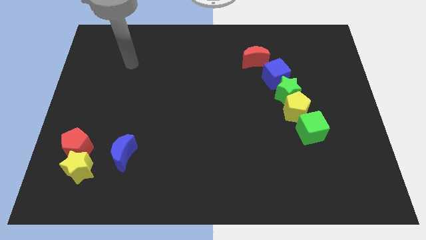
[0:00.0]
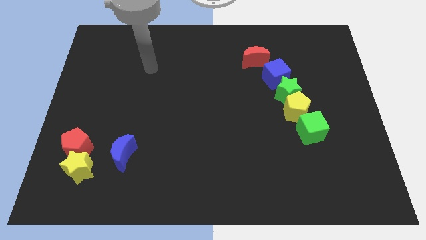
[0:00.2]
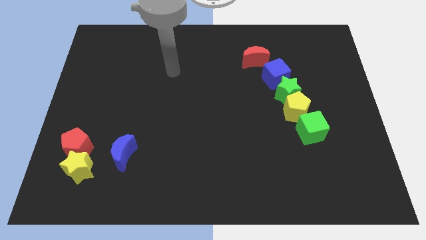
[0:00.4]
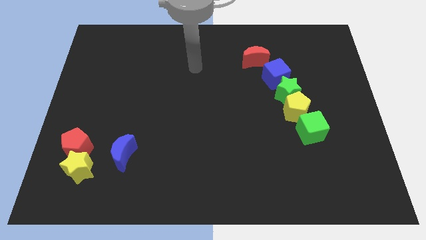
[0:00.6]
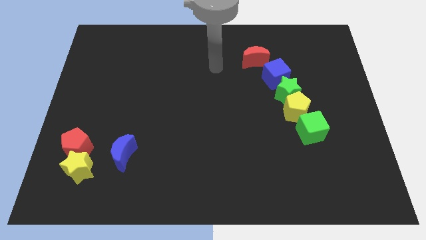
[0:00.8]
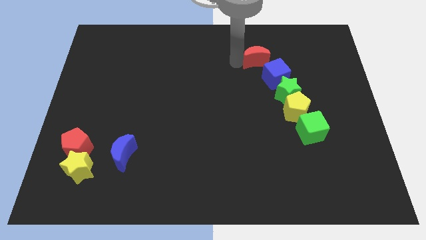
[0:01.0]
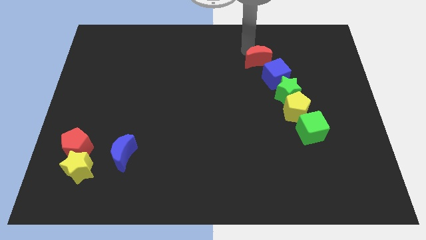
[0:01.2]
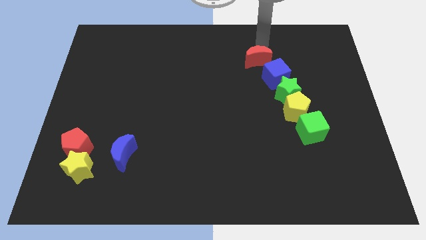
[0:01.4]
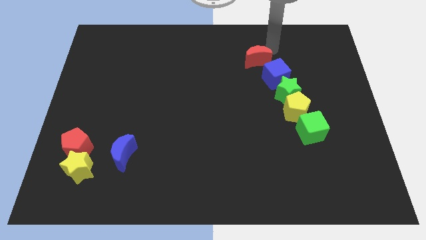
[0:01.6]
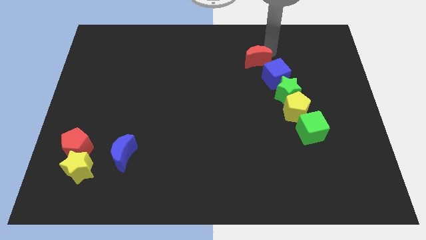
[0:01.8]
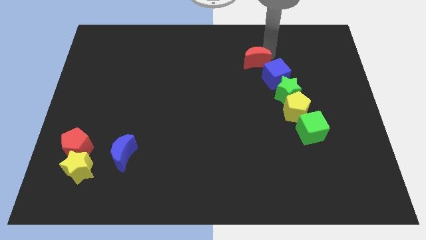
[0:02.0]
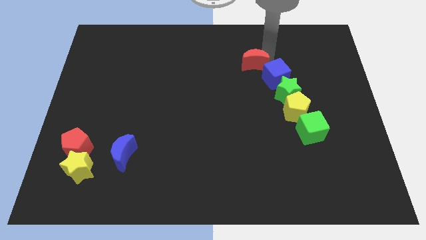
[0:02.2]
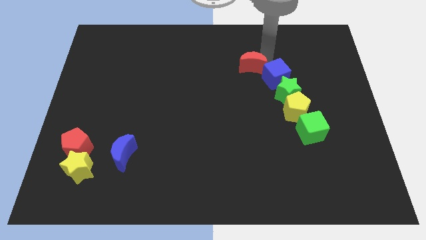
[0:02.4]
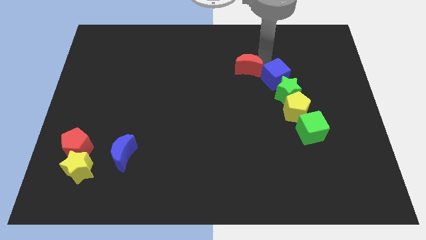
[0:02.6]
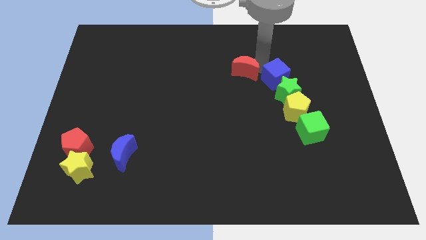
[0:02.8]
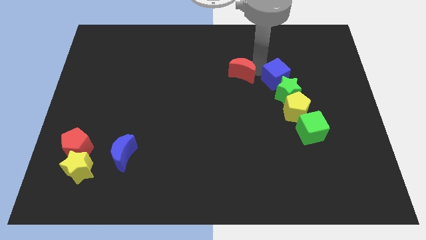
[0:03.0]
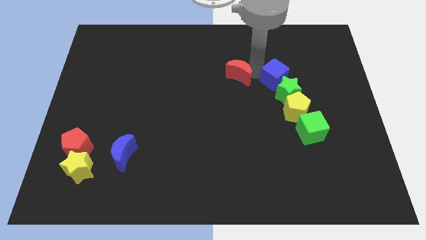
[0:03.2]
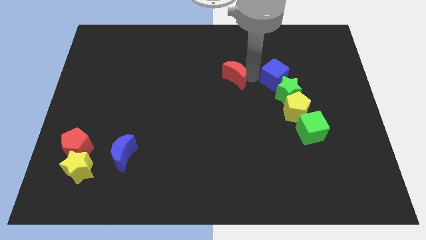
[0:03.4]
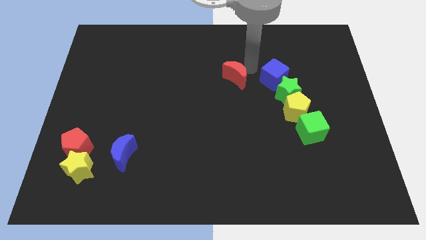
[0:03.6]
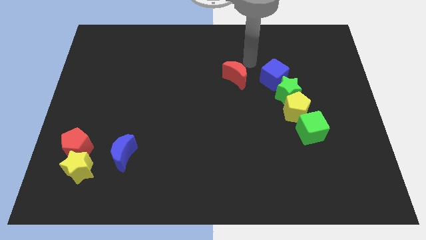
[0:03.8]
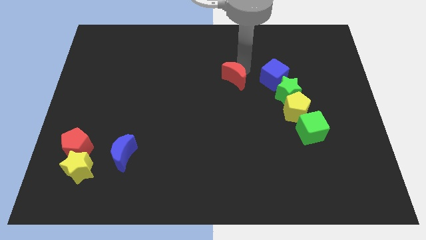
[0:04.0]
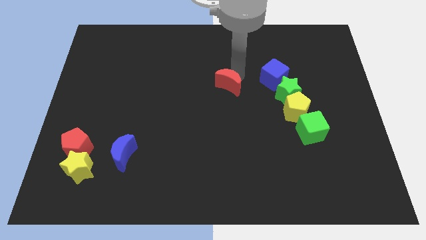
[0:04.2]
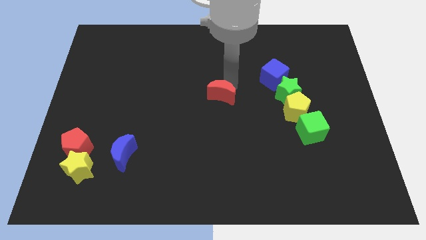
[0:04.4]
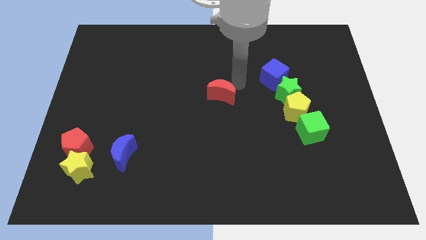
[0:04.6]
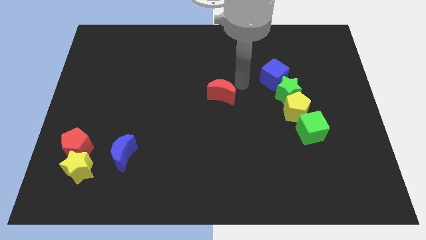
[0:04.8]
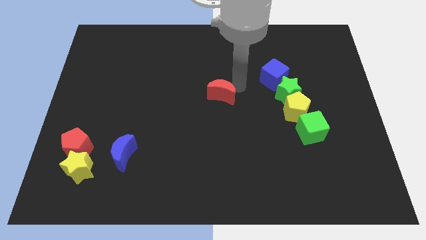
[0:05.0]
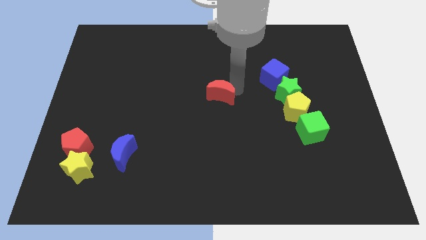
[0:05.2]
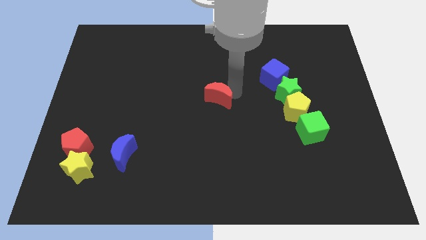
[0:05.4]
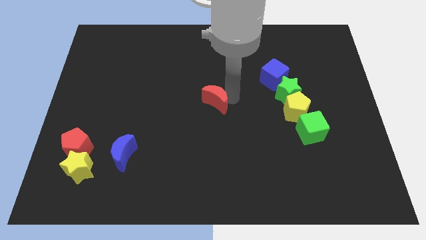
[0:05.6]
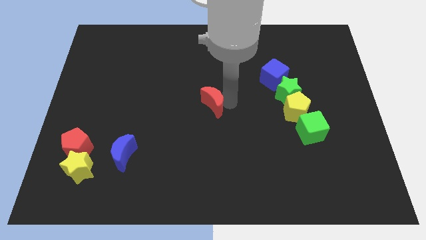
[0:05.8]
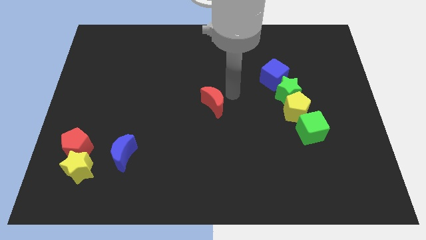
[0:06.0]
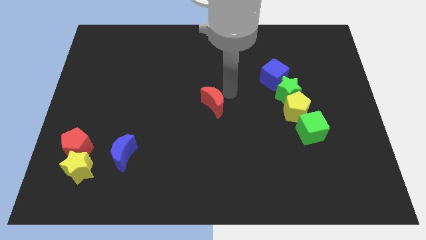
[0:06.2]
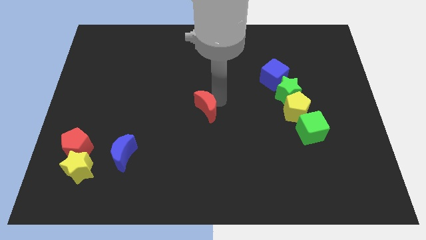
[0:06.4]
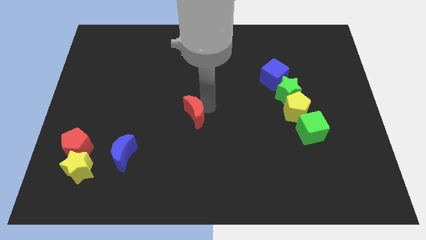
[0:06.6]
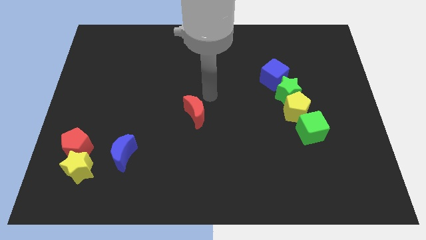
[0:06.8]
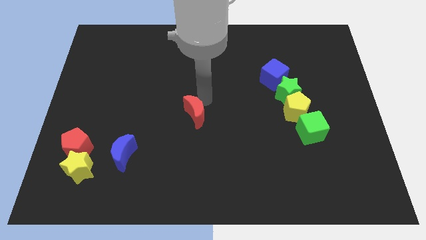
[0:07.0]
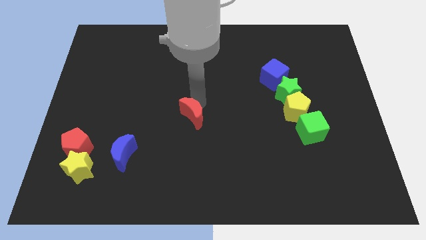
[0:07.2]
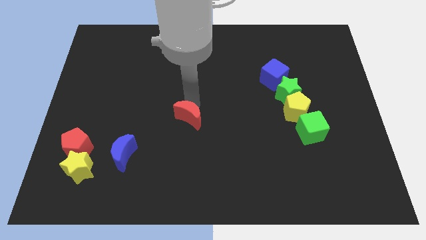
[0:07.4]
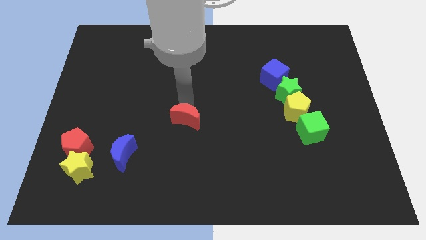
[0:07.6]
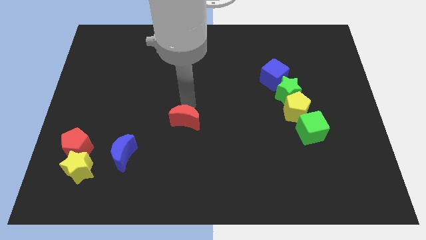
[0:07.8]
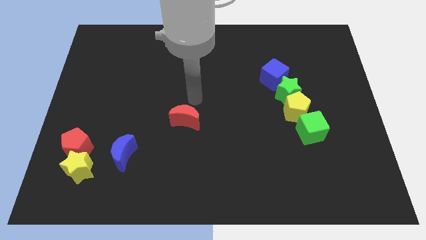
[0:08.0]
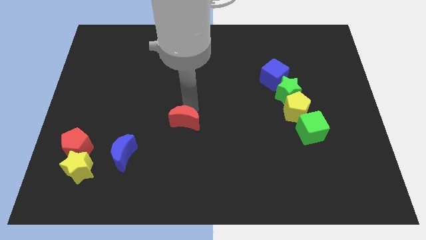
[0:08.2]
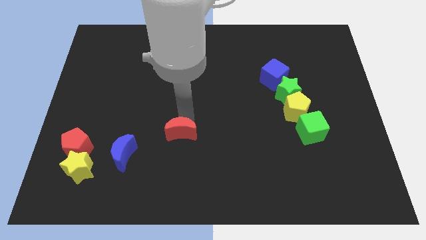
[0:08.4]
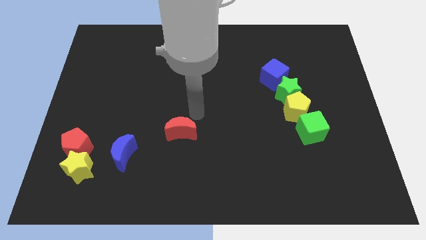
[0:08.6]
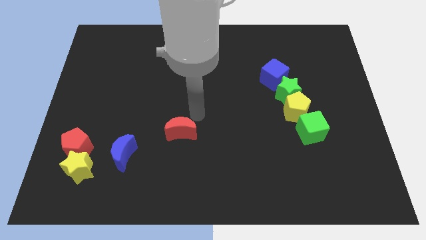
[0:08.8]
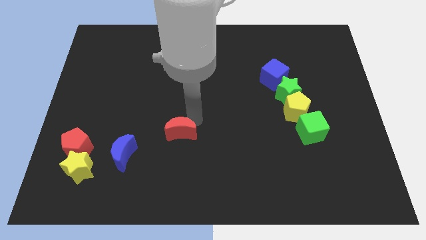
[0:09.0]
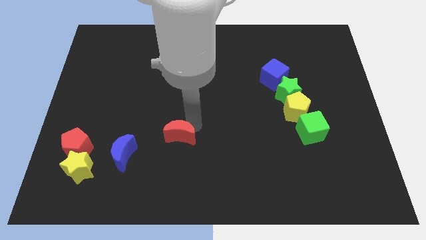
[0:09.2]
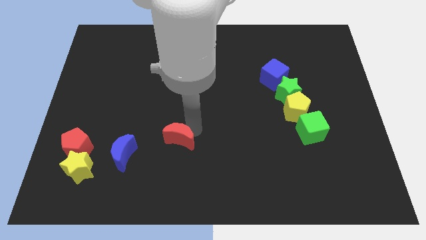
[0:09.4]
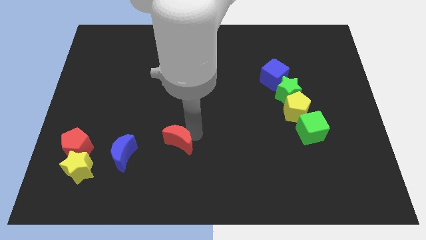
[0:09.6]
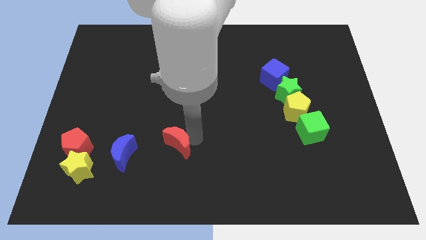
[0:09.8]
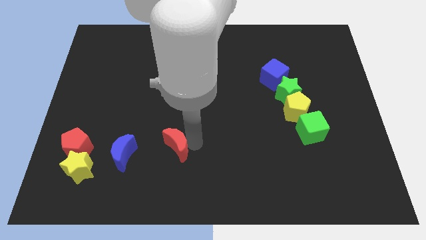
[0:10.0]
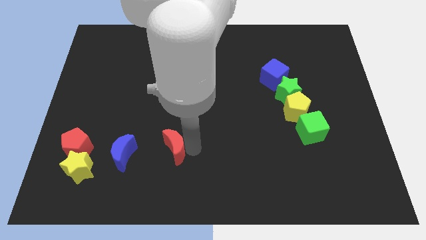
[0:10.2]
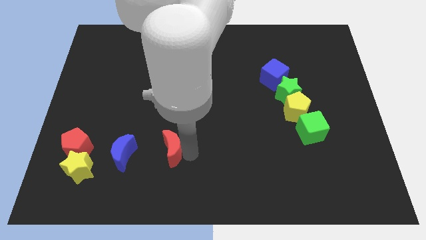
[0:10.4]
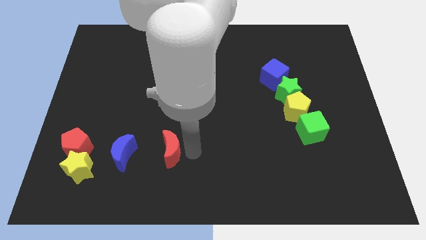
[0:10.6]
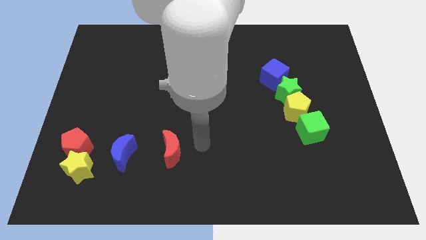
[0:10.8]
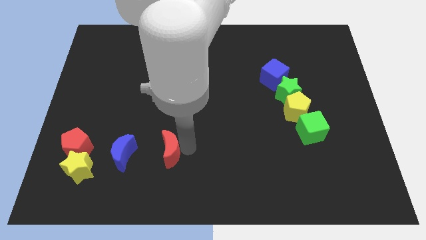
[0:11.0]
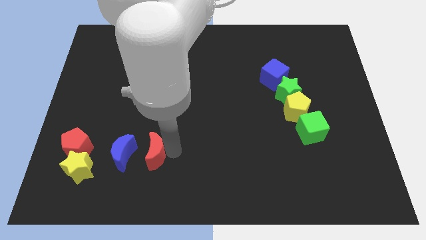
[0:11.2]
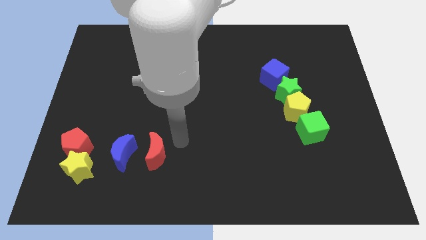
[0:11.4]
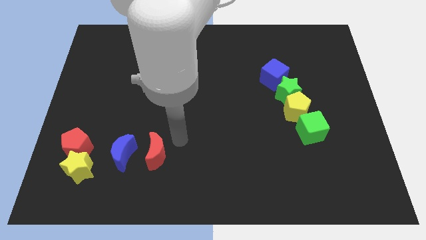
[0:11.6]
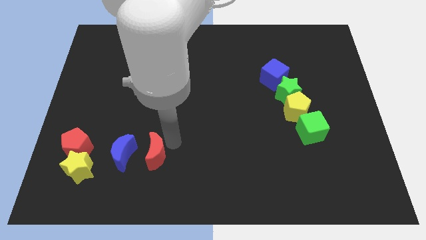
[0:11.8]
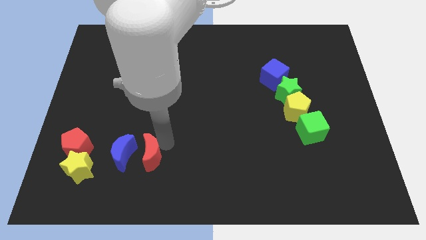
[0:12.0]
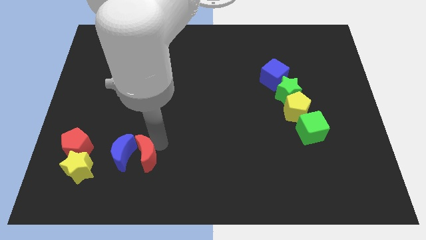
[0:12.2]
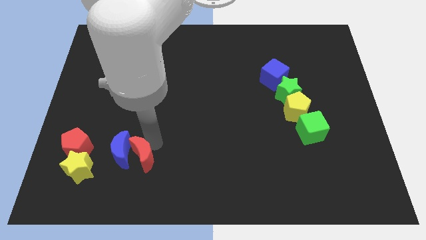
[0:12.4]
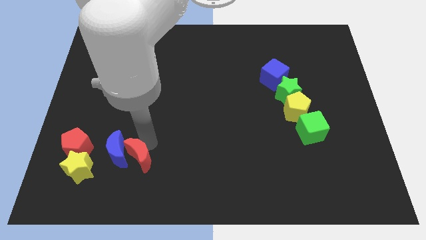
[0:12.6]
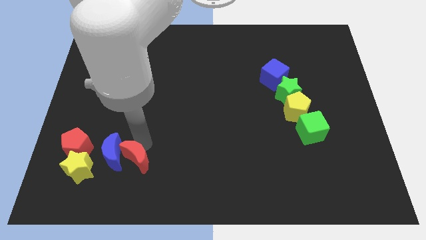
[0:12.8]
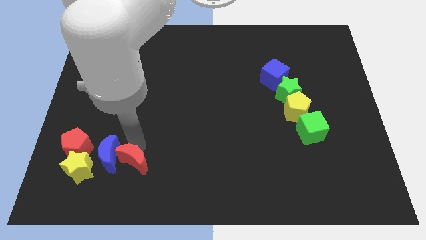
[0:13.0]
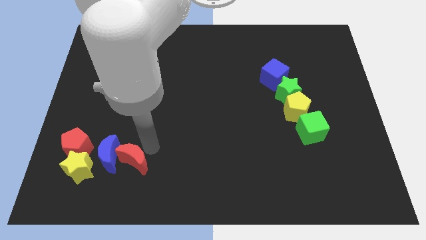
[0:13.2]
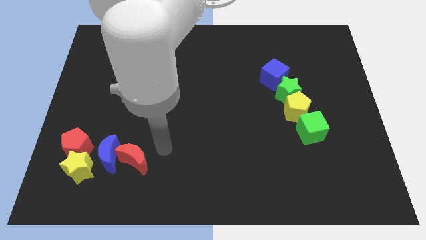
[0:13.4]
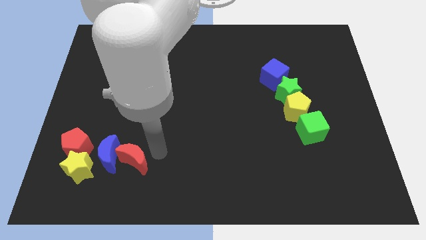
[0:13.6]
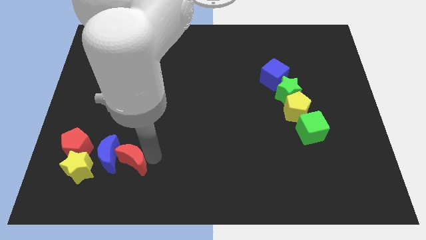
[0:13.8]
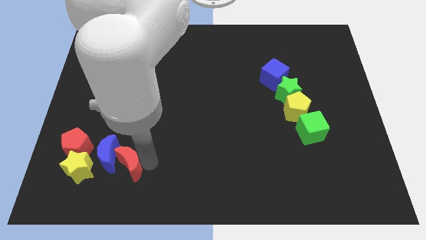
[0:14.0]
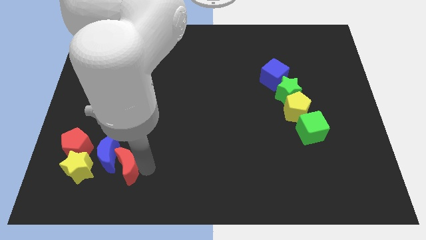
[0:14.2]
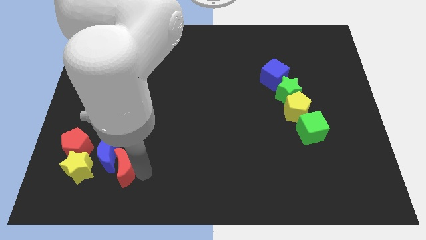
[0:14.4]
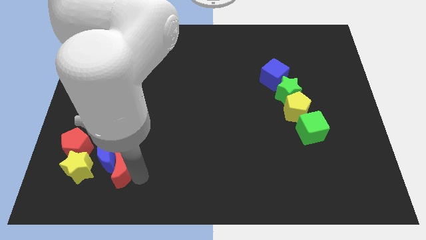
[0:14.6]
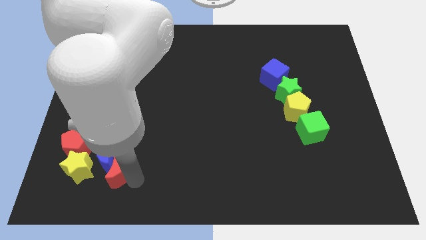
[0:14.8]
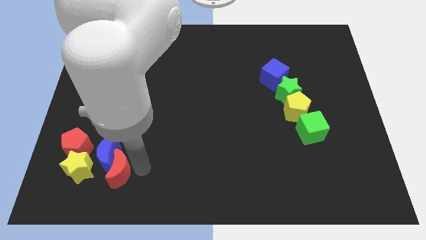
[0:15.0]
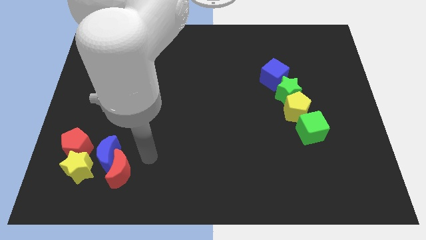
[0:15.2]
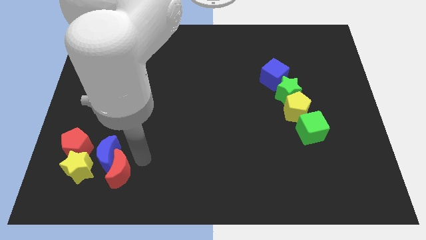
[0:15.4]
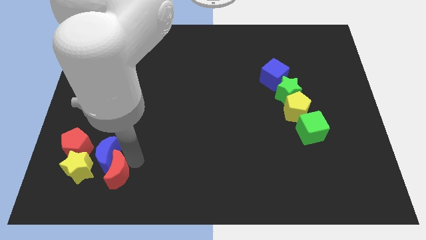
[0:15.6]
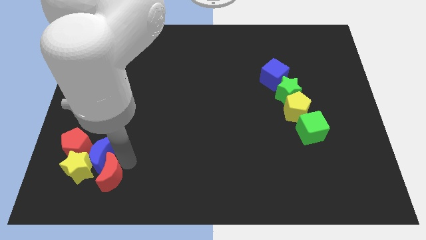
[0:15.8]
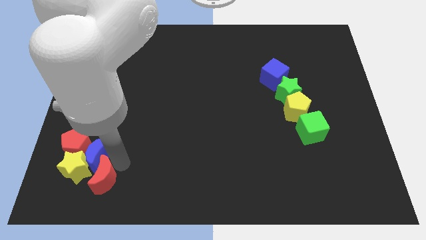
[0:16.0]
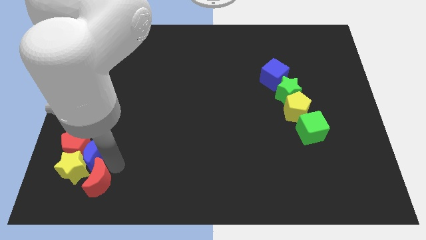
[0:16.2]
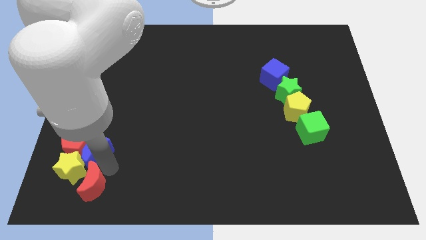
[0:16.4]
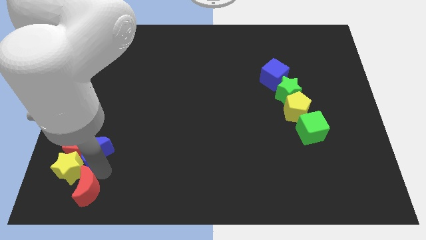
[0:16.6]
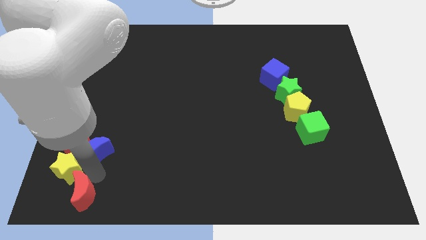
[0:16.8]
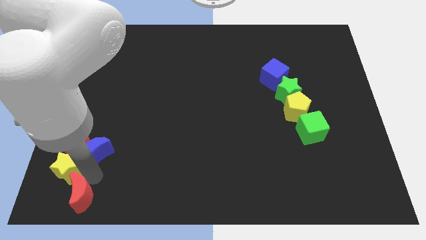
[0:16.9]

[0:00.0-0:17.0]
push the red moon to the lower left corner
